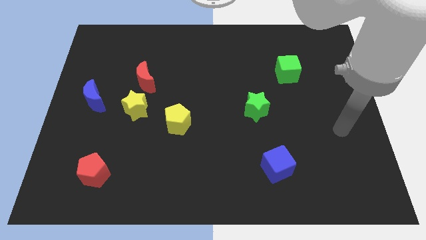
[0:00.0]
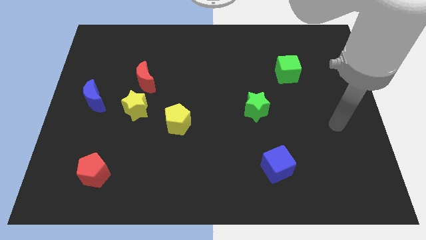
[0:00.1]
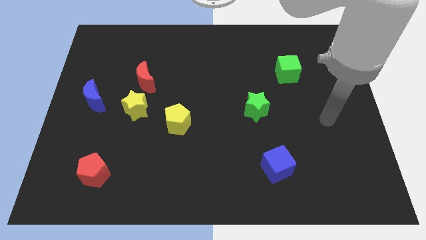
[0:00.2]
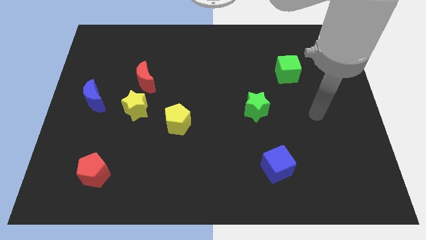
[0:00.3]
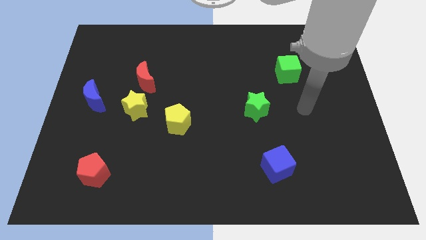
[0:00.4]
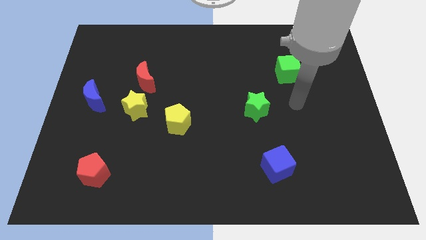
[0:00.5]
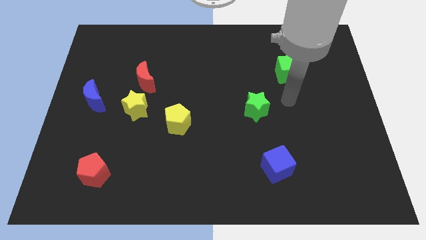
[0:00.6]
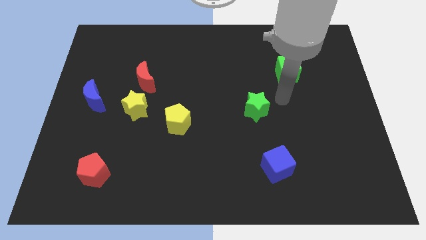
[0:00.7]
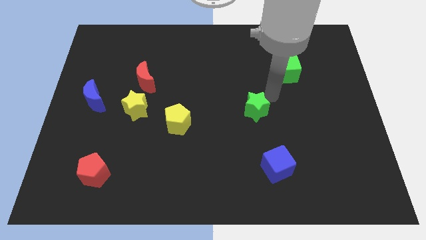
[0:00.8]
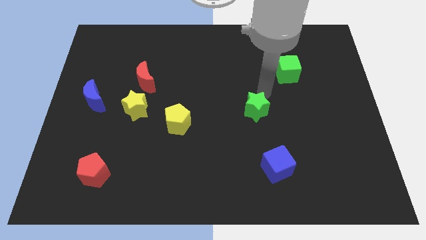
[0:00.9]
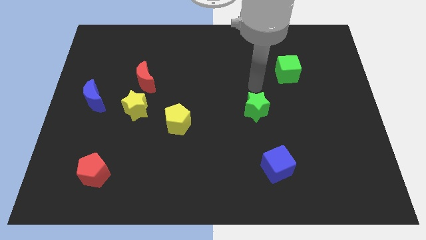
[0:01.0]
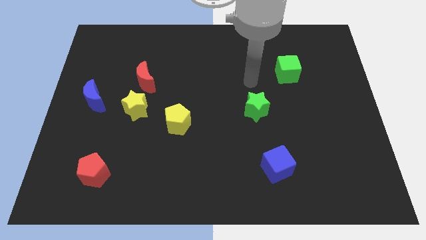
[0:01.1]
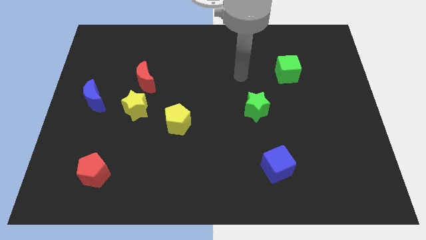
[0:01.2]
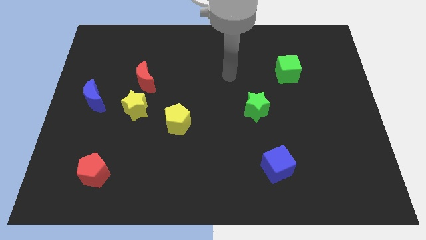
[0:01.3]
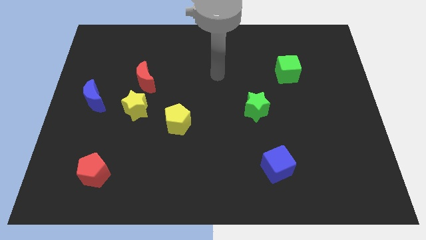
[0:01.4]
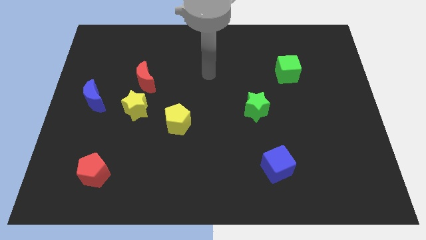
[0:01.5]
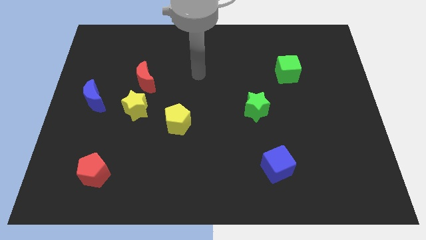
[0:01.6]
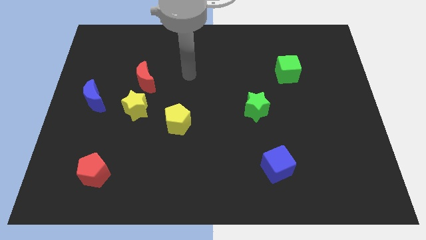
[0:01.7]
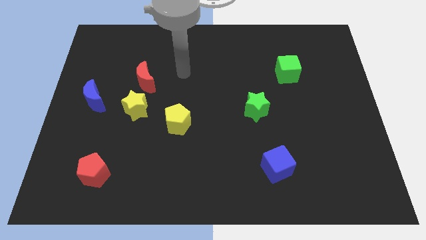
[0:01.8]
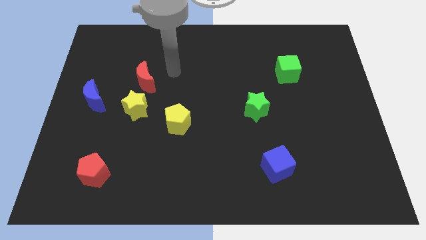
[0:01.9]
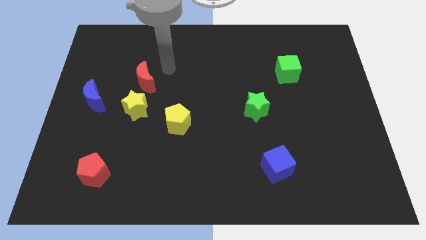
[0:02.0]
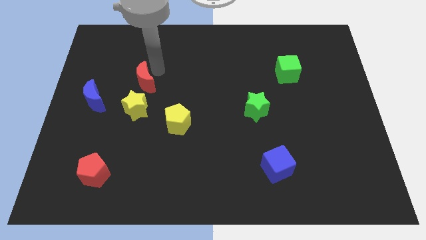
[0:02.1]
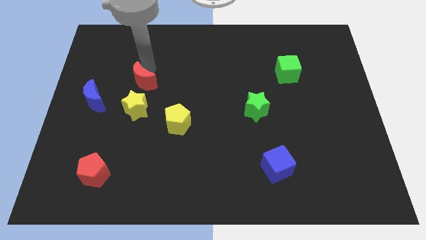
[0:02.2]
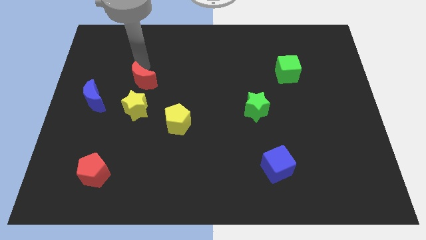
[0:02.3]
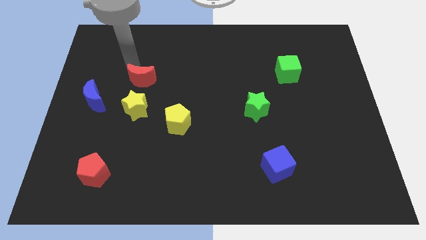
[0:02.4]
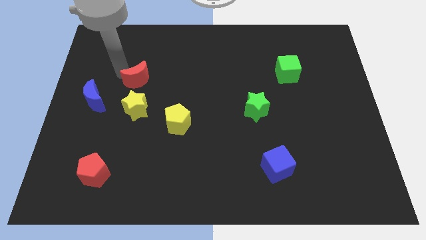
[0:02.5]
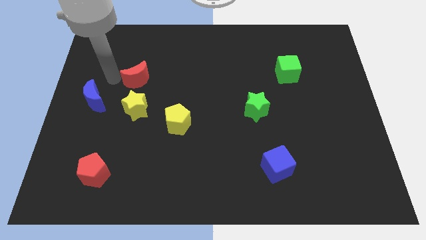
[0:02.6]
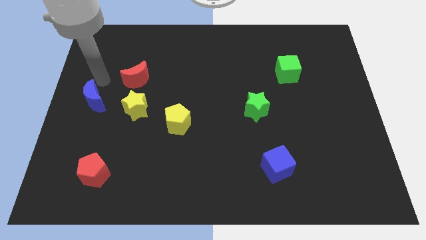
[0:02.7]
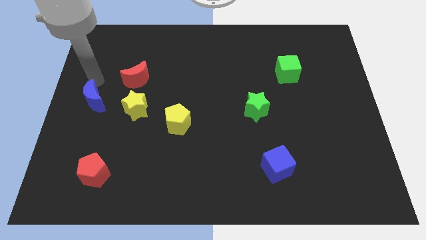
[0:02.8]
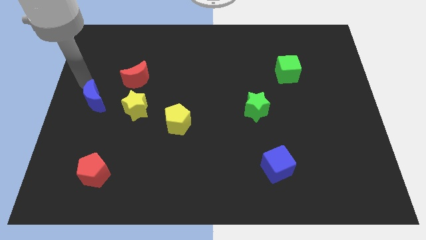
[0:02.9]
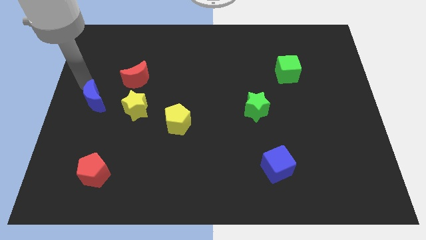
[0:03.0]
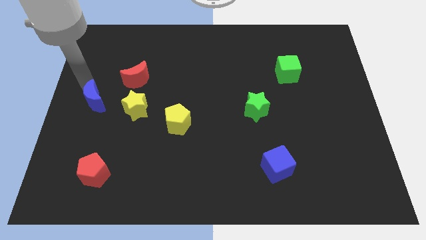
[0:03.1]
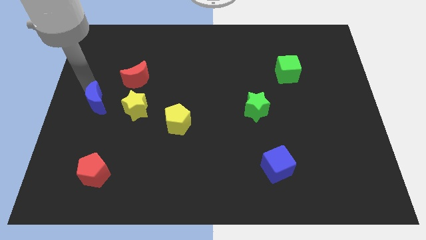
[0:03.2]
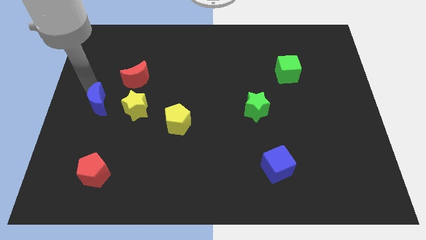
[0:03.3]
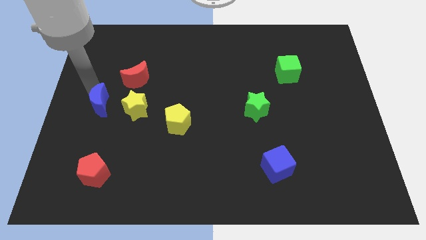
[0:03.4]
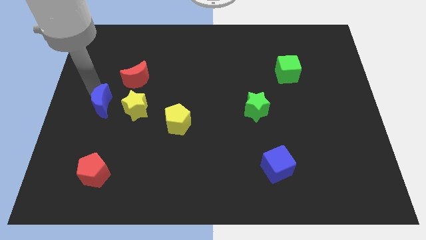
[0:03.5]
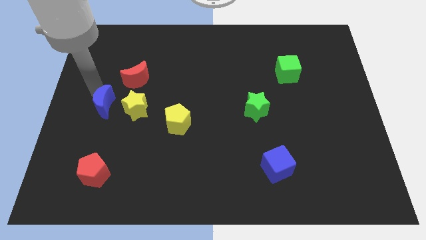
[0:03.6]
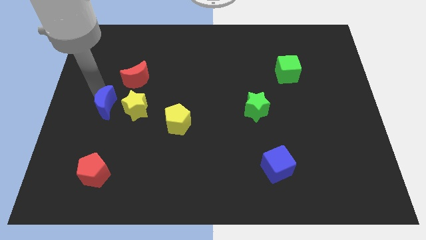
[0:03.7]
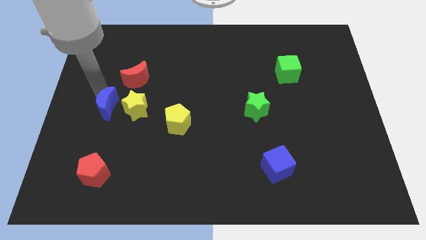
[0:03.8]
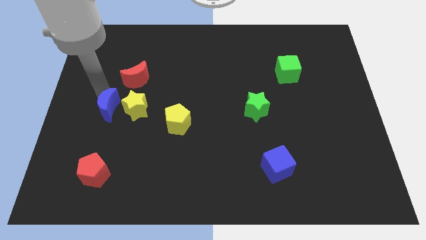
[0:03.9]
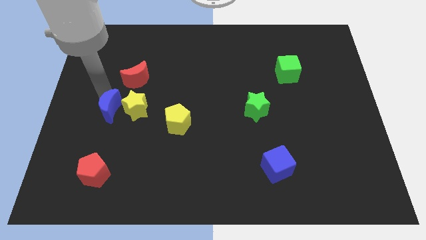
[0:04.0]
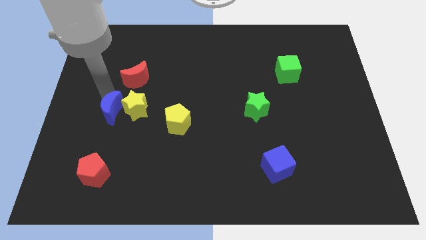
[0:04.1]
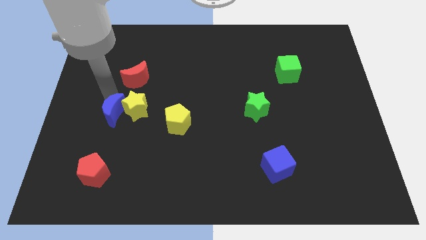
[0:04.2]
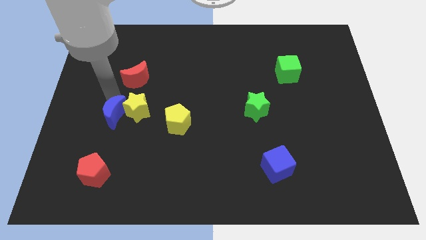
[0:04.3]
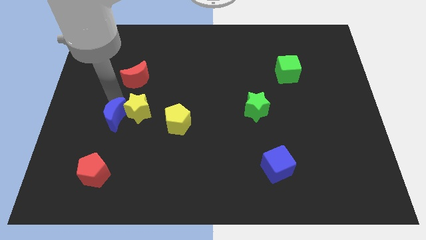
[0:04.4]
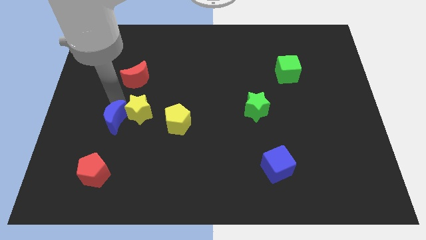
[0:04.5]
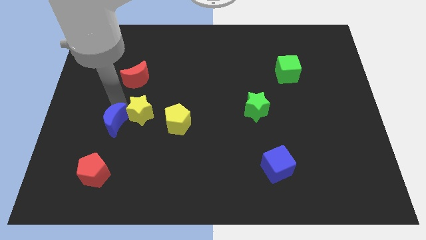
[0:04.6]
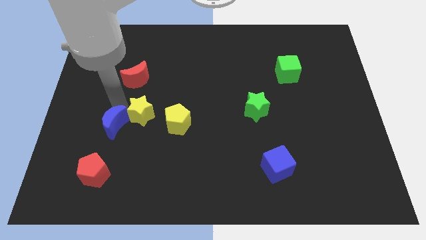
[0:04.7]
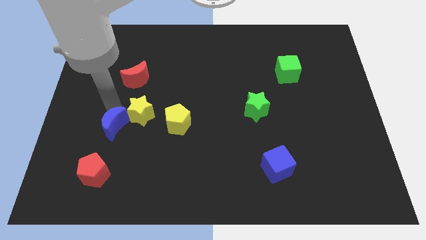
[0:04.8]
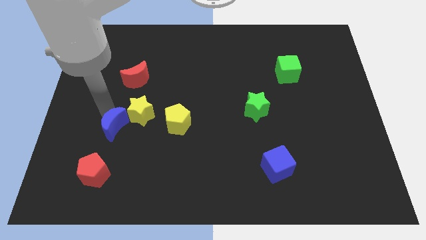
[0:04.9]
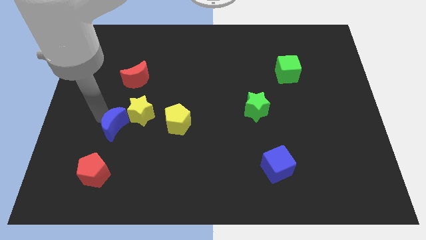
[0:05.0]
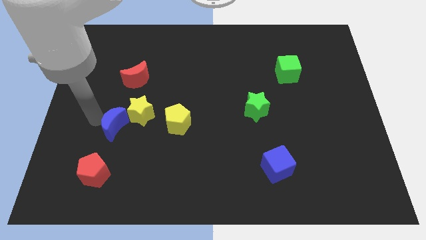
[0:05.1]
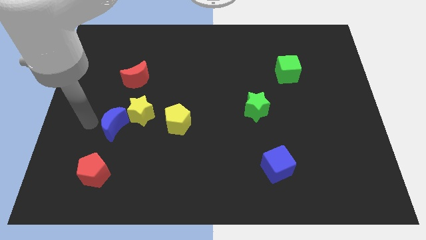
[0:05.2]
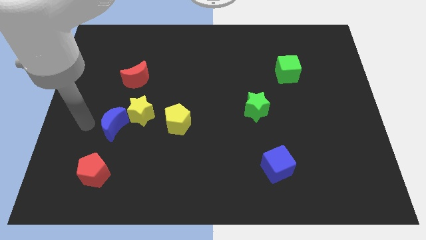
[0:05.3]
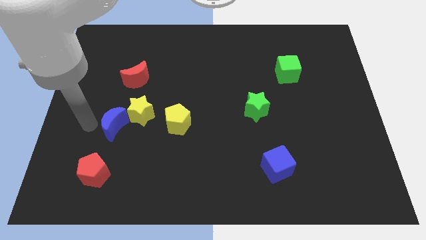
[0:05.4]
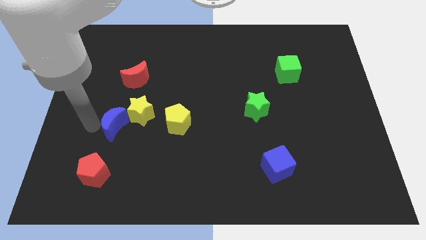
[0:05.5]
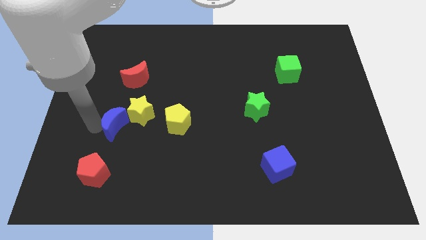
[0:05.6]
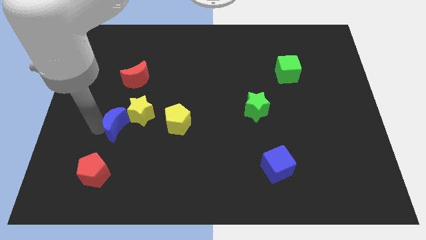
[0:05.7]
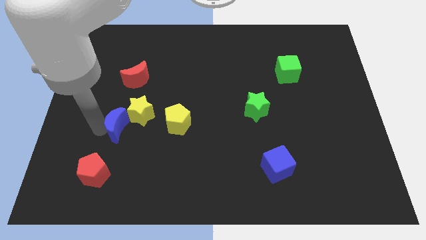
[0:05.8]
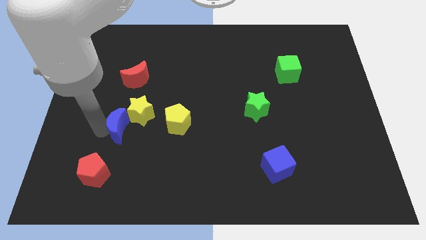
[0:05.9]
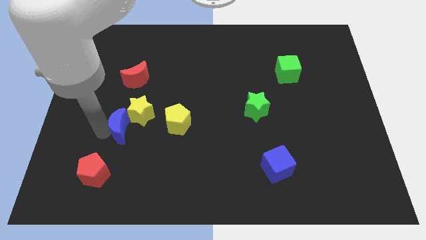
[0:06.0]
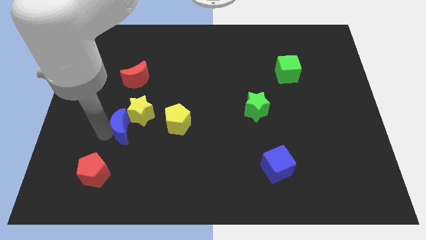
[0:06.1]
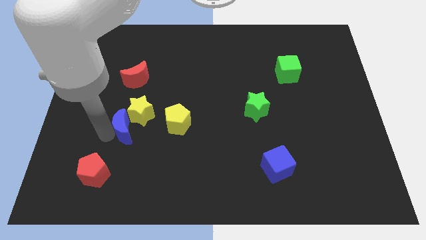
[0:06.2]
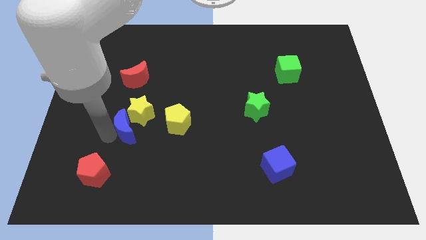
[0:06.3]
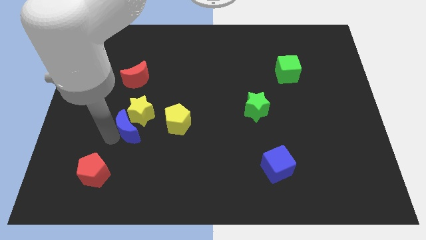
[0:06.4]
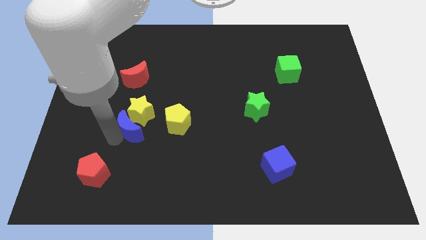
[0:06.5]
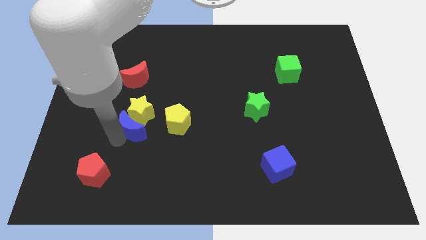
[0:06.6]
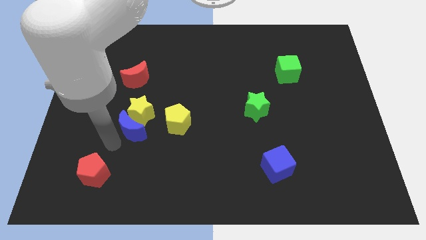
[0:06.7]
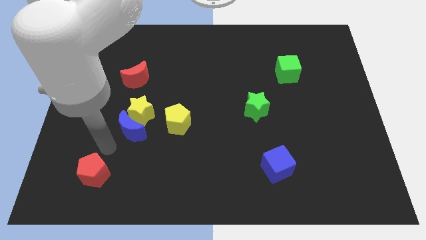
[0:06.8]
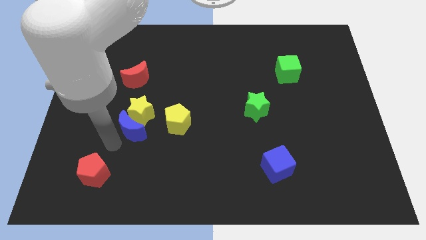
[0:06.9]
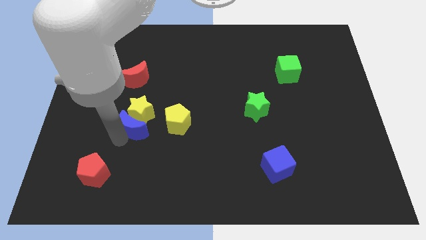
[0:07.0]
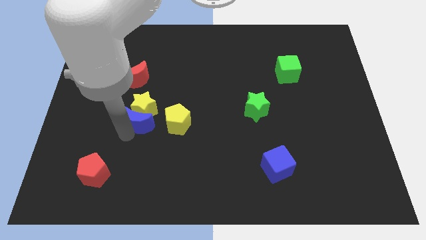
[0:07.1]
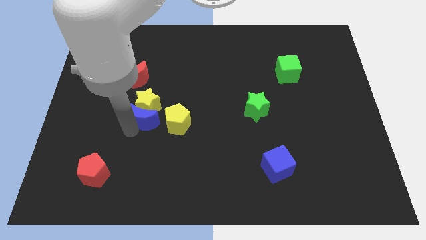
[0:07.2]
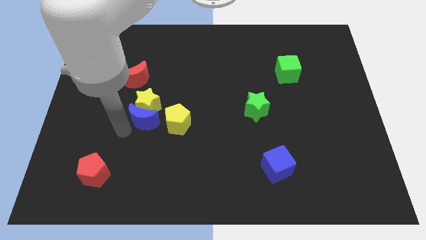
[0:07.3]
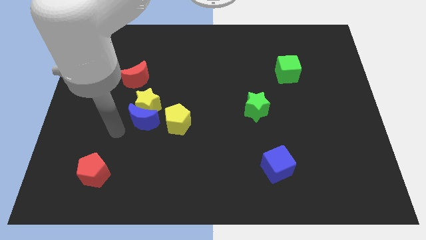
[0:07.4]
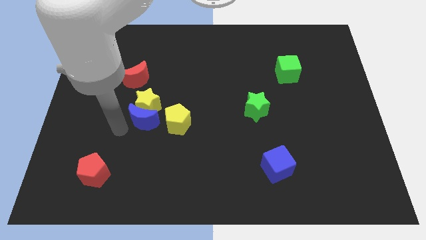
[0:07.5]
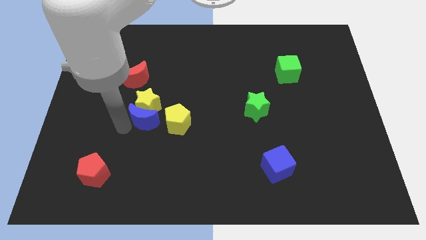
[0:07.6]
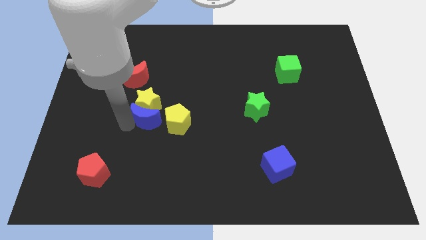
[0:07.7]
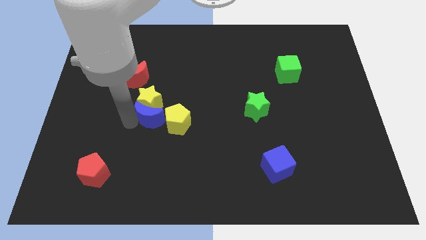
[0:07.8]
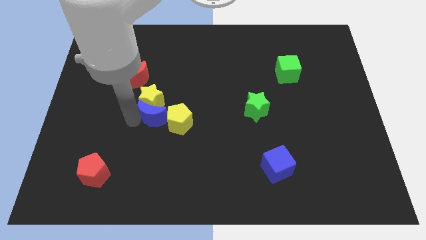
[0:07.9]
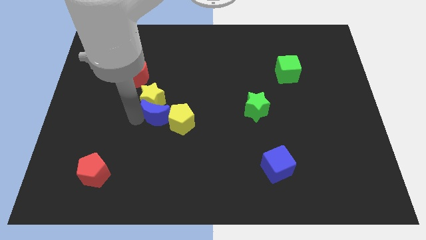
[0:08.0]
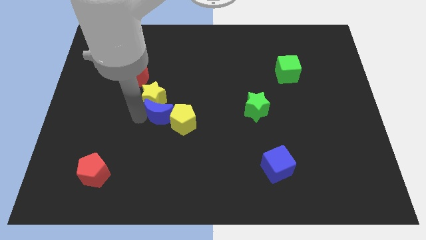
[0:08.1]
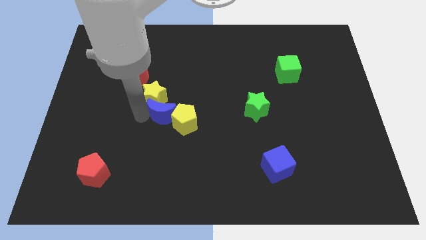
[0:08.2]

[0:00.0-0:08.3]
push the blue moon to the middle
